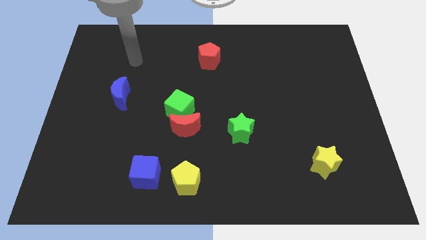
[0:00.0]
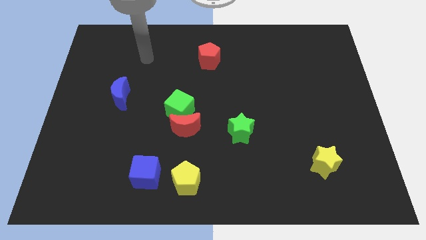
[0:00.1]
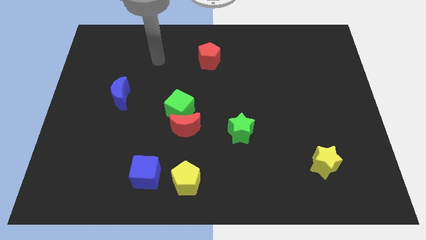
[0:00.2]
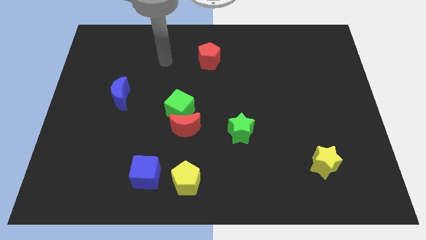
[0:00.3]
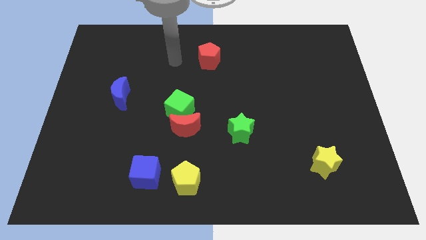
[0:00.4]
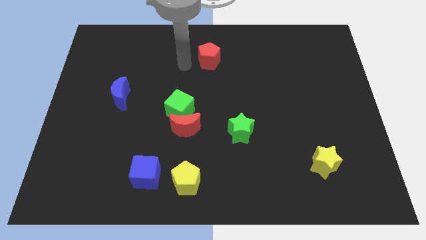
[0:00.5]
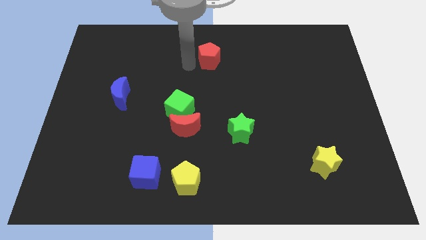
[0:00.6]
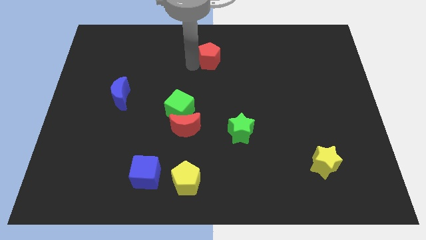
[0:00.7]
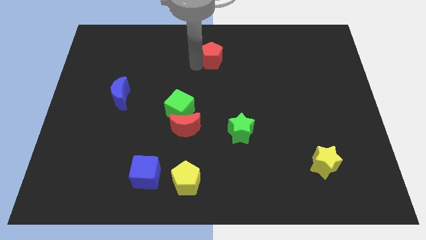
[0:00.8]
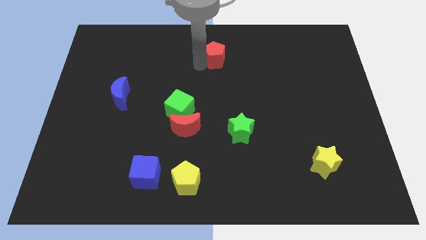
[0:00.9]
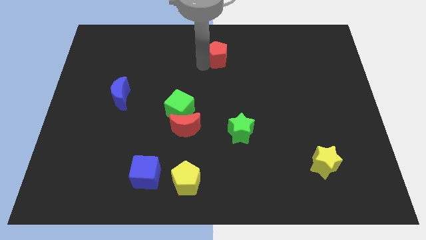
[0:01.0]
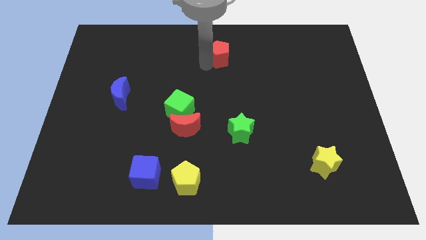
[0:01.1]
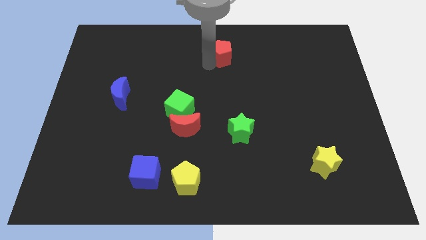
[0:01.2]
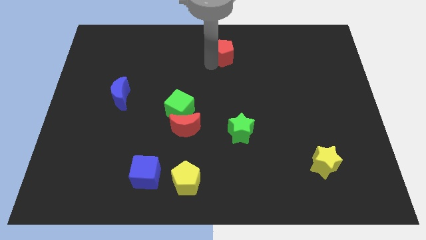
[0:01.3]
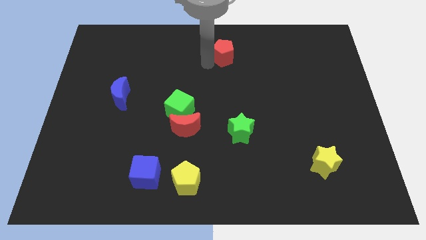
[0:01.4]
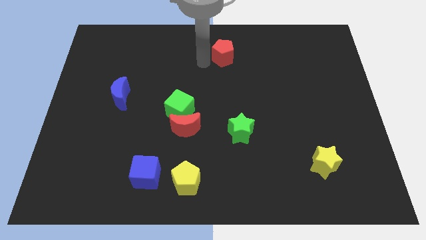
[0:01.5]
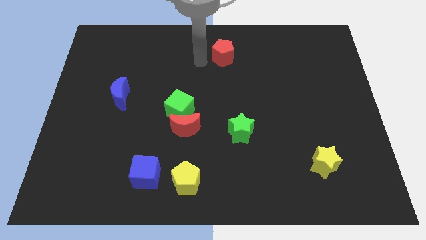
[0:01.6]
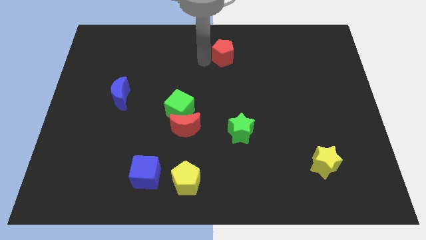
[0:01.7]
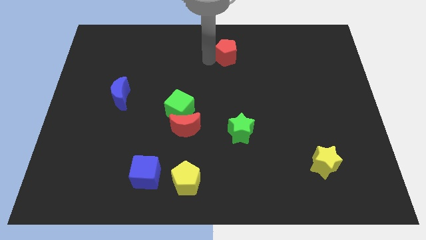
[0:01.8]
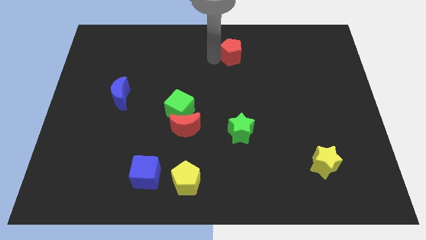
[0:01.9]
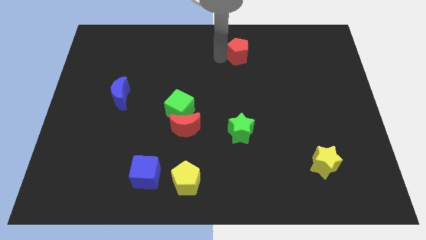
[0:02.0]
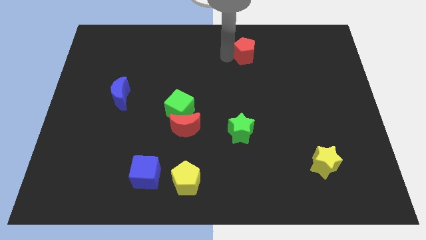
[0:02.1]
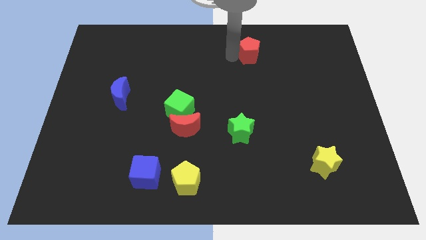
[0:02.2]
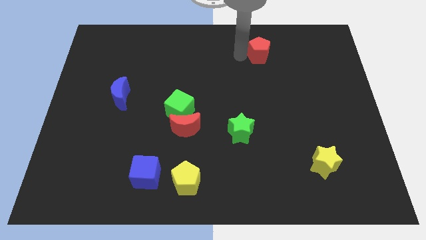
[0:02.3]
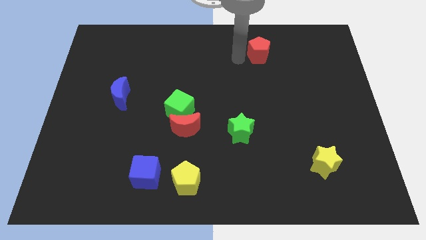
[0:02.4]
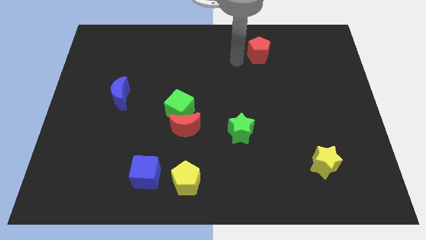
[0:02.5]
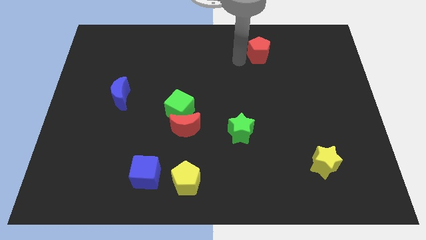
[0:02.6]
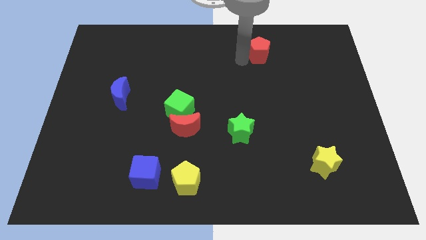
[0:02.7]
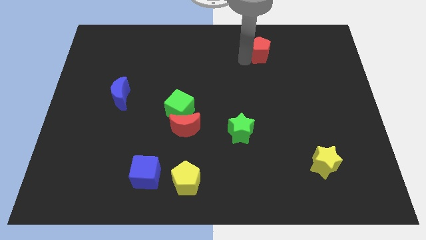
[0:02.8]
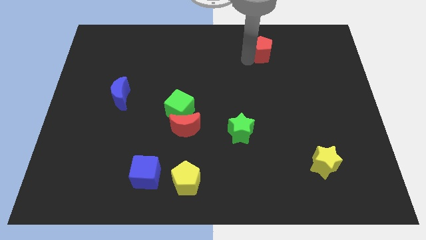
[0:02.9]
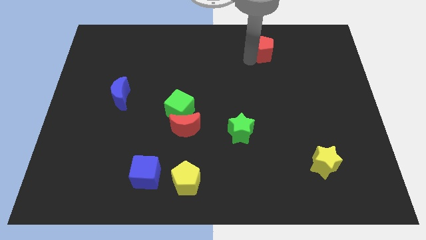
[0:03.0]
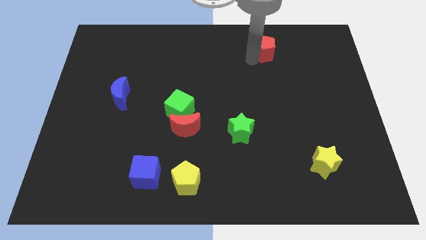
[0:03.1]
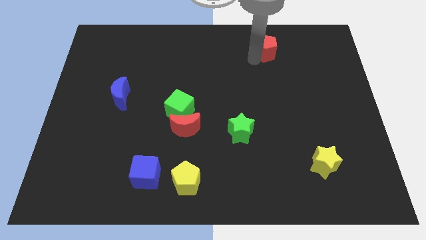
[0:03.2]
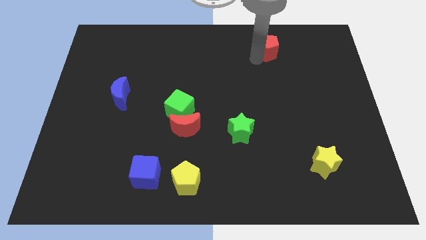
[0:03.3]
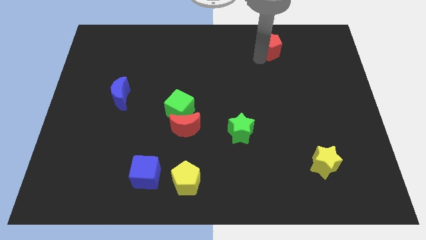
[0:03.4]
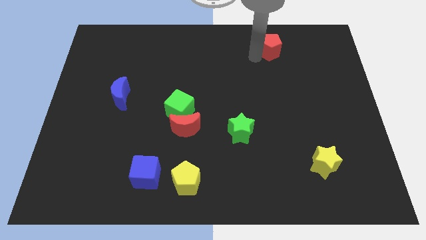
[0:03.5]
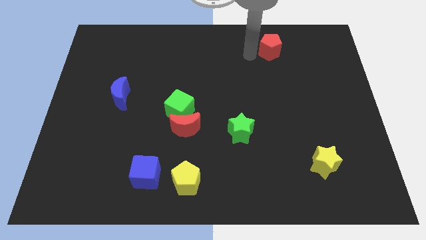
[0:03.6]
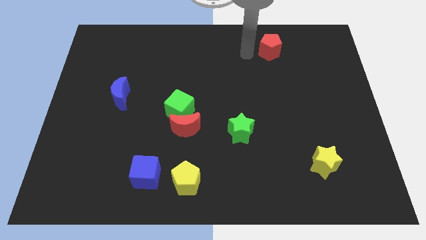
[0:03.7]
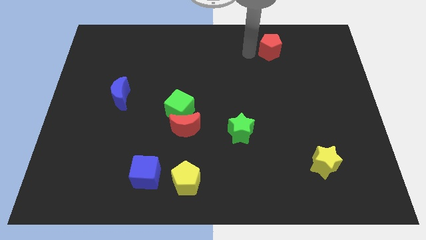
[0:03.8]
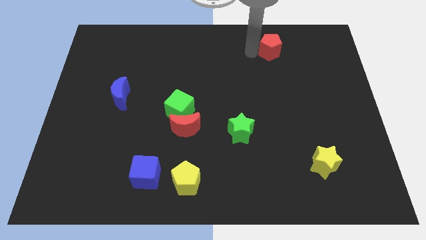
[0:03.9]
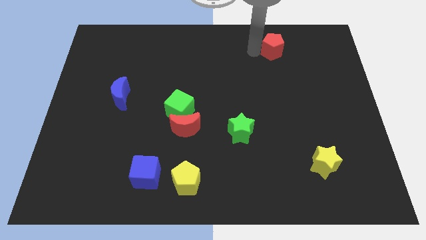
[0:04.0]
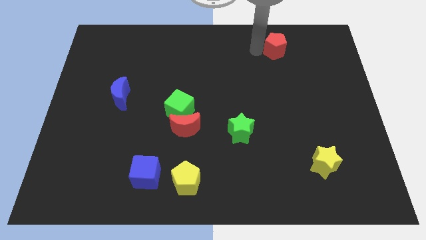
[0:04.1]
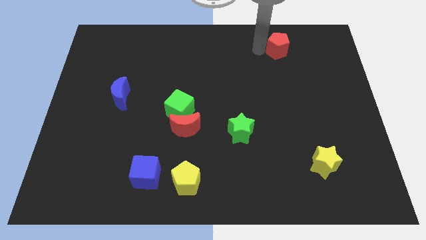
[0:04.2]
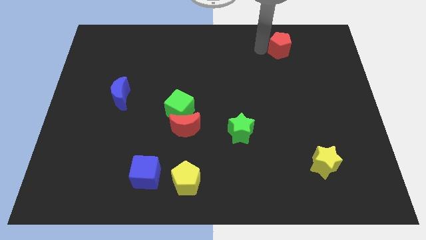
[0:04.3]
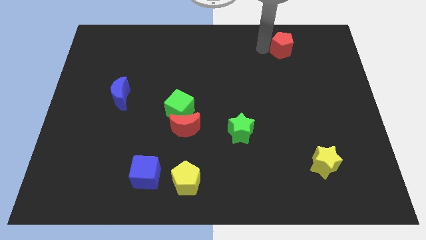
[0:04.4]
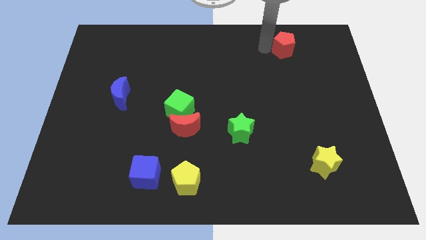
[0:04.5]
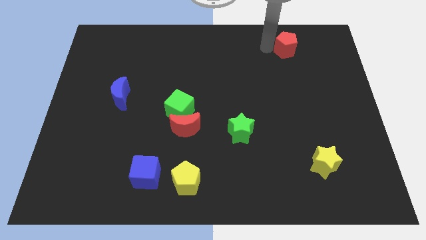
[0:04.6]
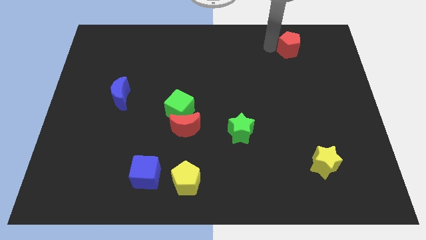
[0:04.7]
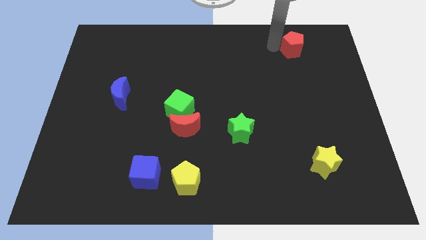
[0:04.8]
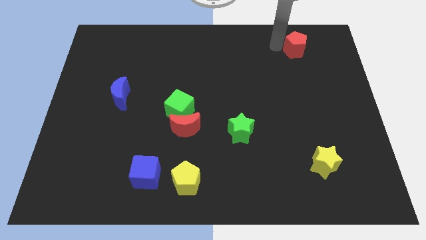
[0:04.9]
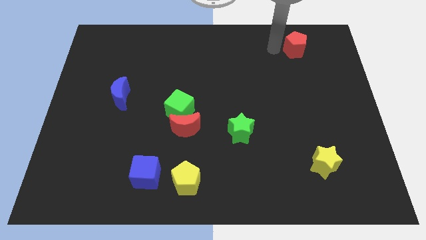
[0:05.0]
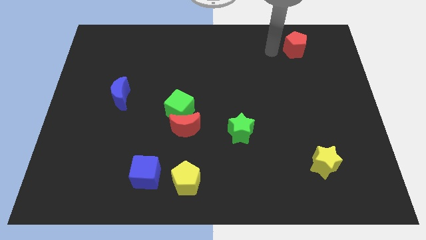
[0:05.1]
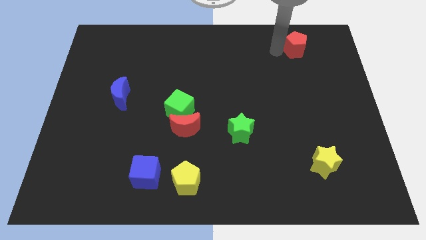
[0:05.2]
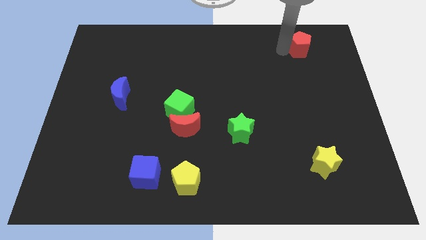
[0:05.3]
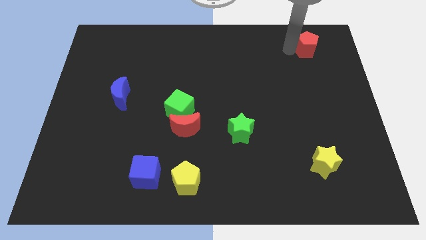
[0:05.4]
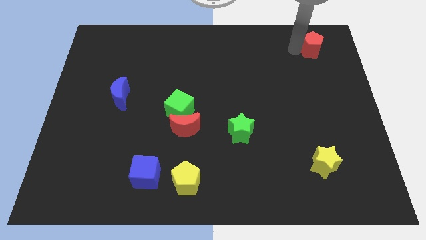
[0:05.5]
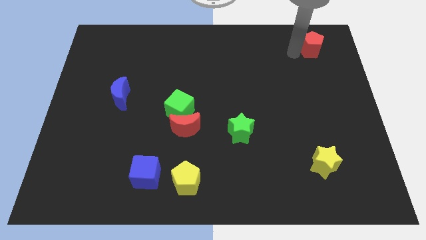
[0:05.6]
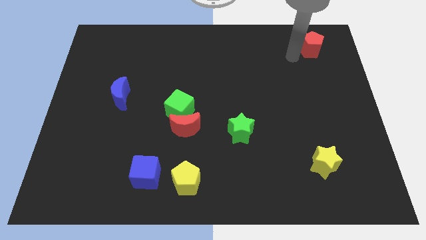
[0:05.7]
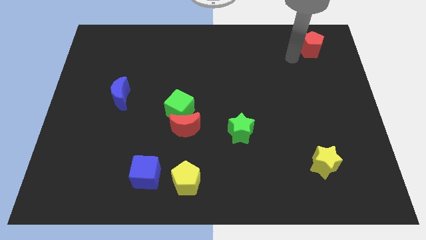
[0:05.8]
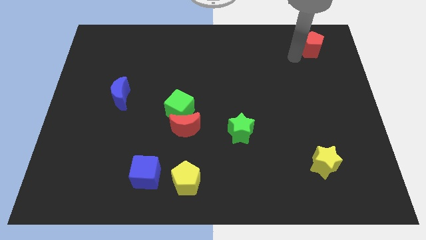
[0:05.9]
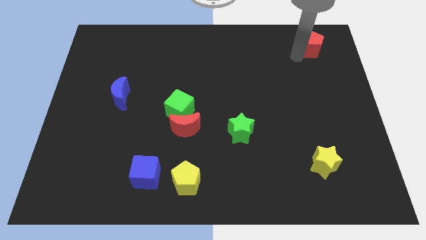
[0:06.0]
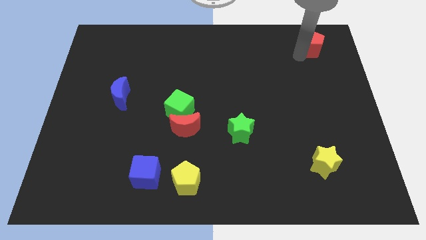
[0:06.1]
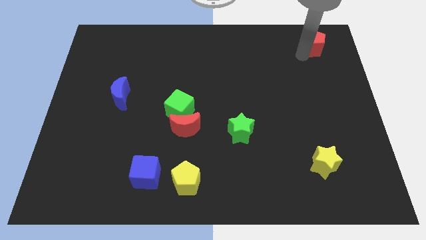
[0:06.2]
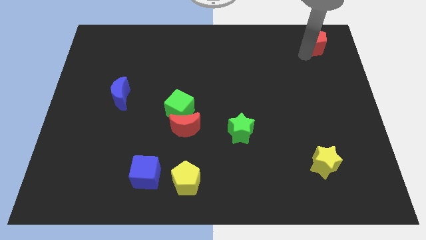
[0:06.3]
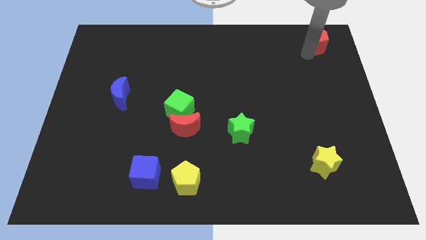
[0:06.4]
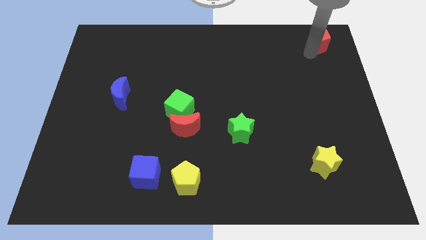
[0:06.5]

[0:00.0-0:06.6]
put the red pentagon to the top right
